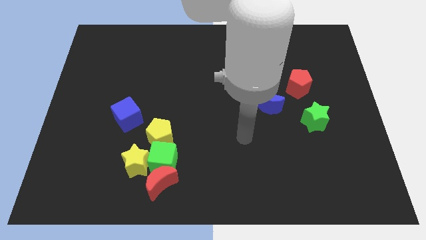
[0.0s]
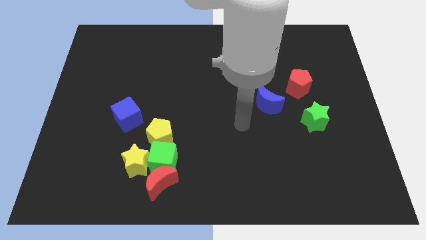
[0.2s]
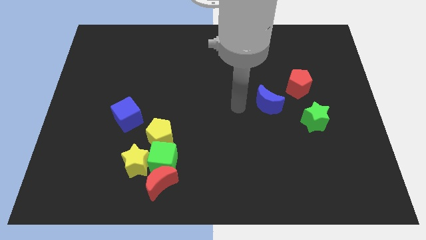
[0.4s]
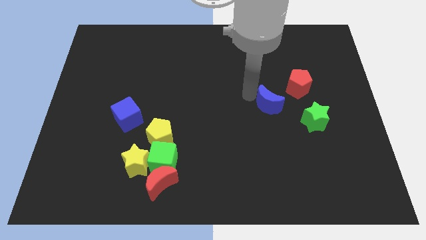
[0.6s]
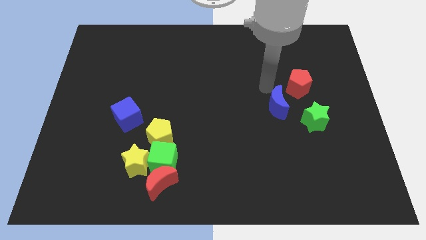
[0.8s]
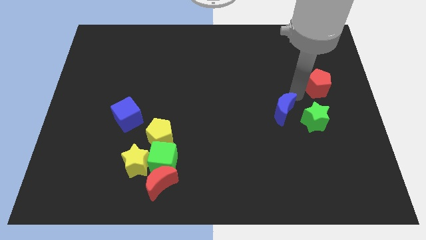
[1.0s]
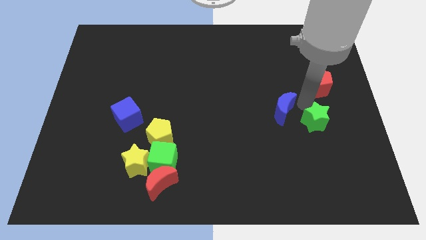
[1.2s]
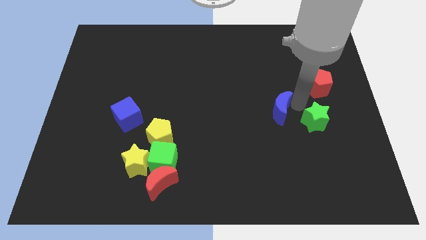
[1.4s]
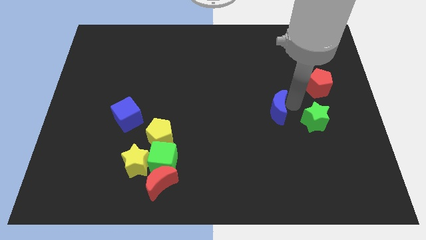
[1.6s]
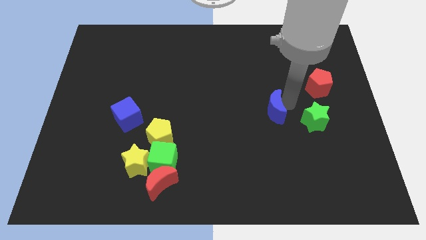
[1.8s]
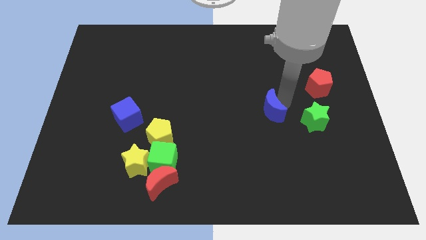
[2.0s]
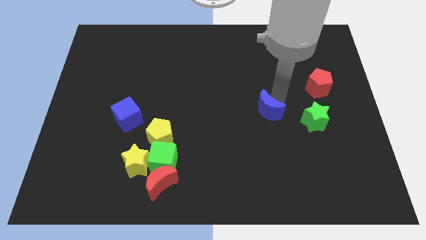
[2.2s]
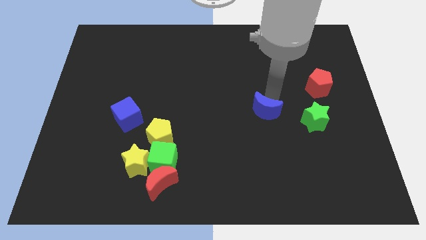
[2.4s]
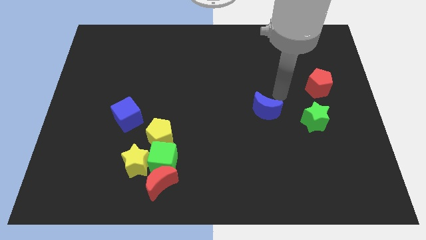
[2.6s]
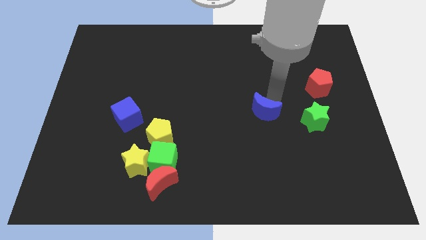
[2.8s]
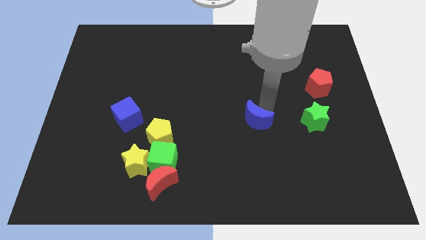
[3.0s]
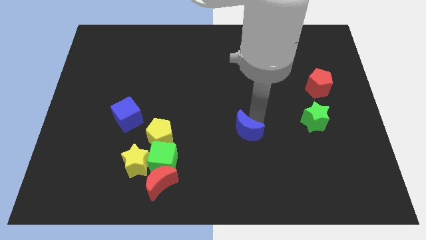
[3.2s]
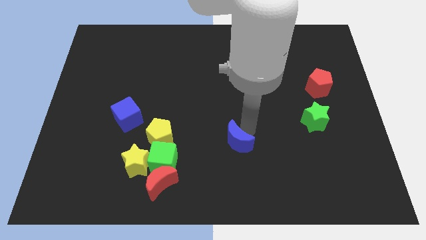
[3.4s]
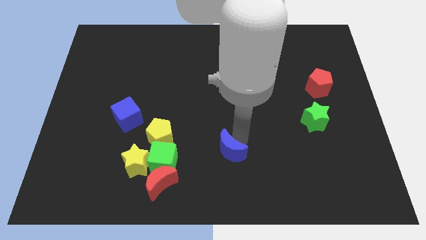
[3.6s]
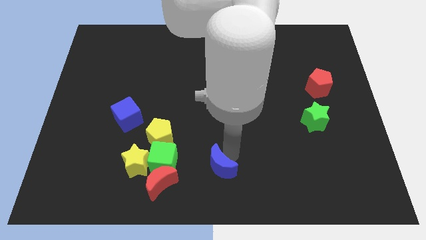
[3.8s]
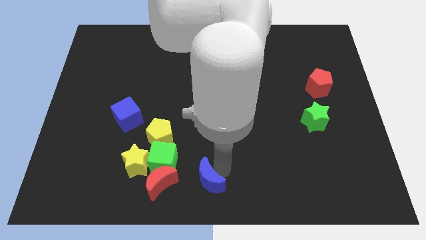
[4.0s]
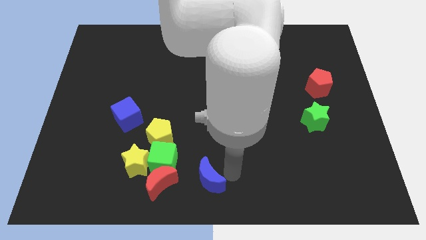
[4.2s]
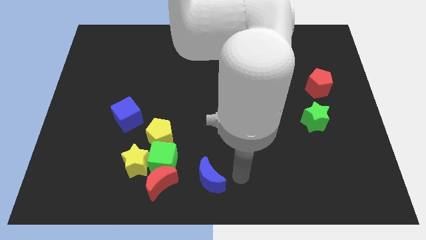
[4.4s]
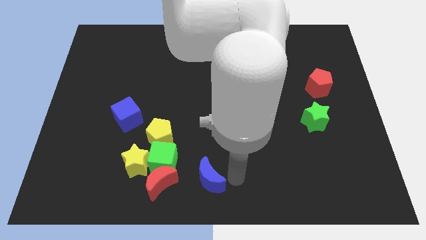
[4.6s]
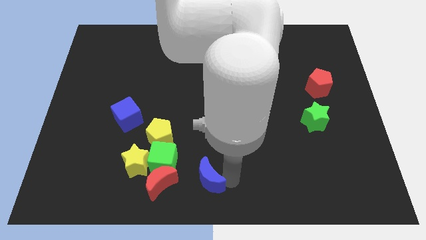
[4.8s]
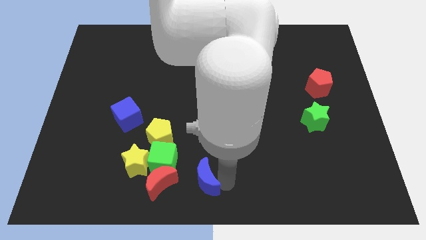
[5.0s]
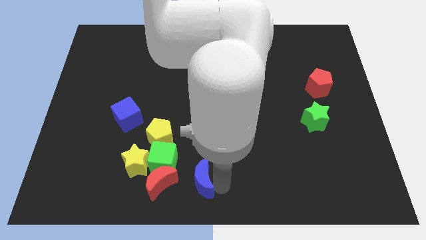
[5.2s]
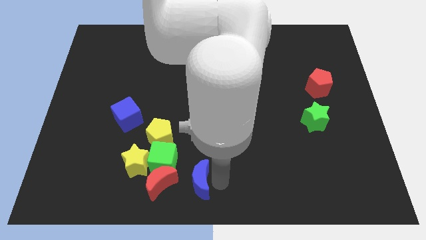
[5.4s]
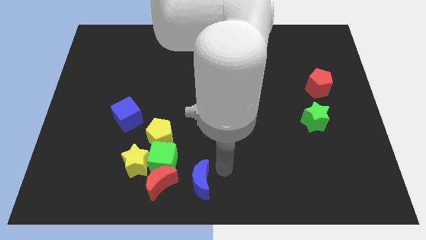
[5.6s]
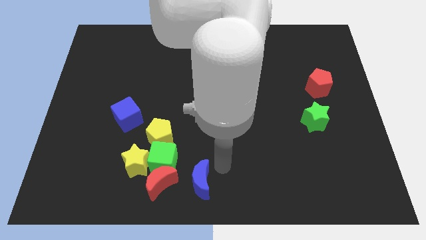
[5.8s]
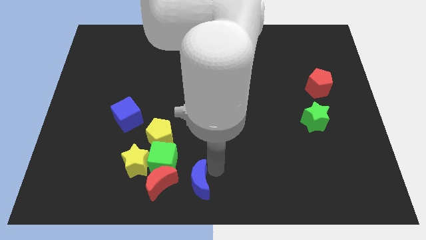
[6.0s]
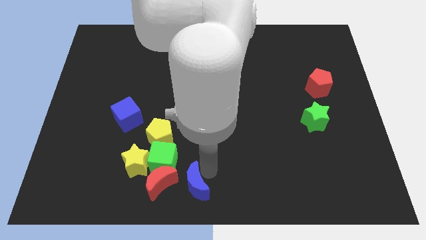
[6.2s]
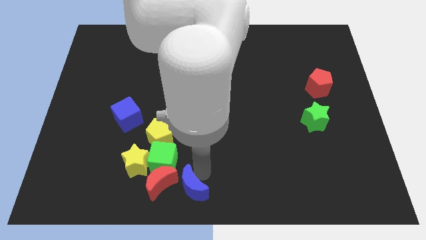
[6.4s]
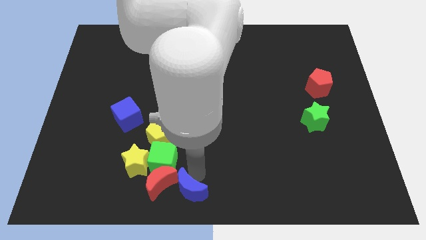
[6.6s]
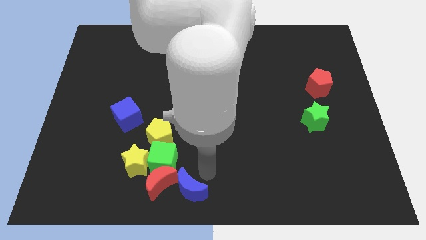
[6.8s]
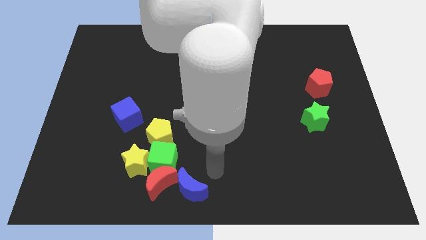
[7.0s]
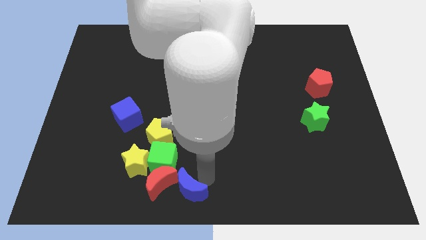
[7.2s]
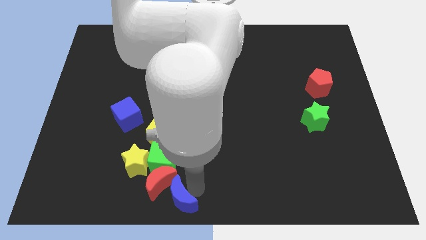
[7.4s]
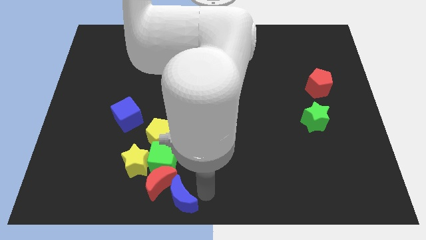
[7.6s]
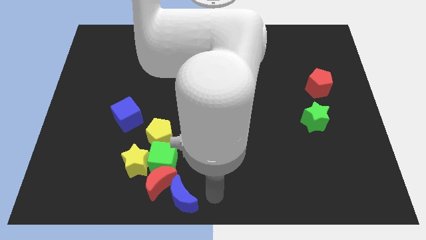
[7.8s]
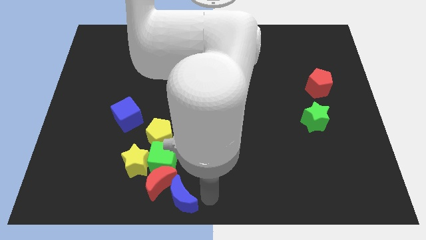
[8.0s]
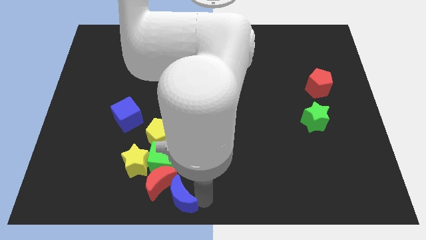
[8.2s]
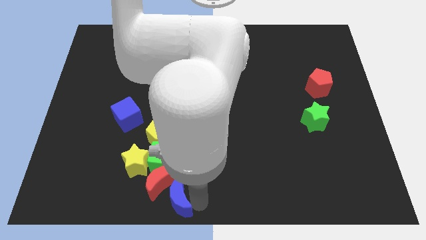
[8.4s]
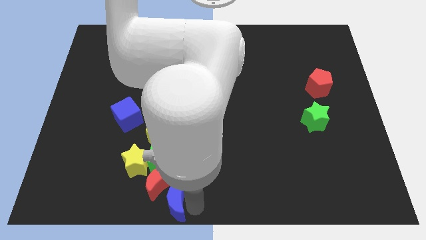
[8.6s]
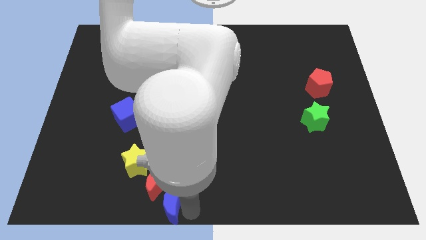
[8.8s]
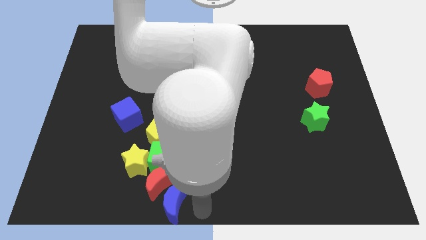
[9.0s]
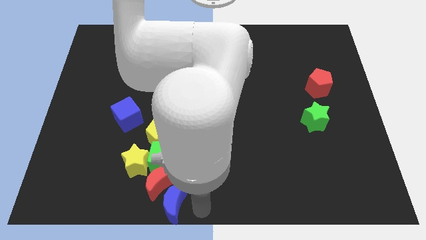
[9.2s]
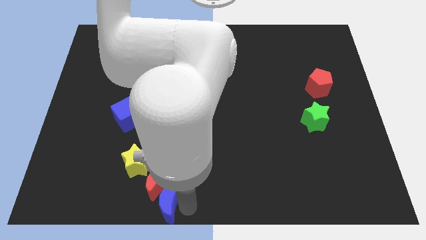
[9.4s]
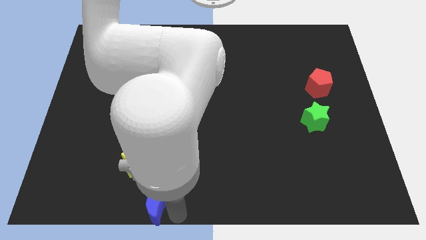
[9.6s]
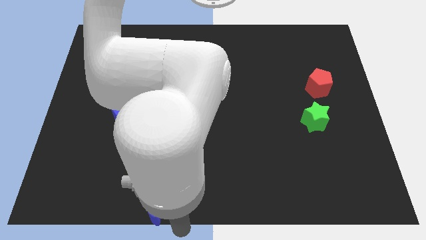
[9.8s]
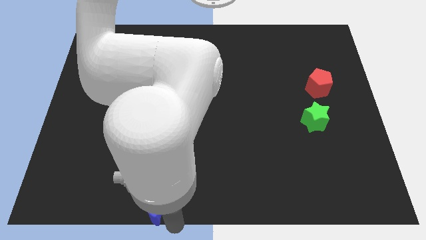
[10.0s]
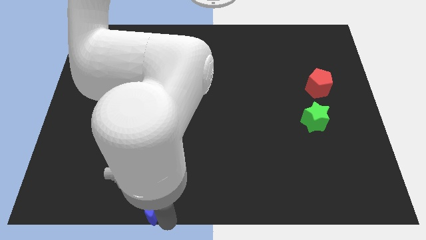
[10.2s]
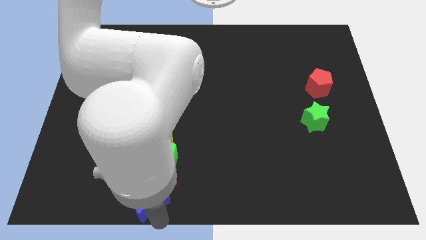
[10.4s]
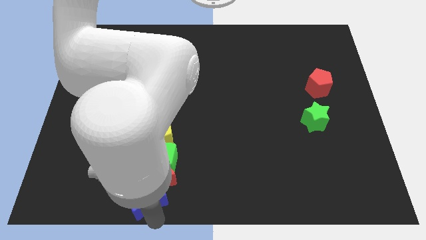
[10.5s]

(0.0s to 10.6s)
move the blue moon diagonally down and to the left of the green cube

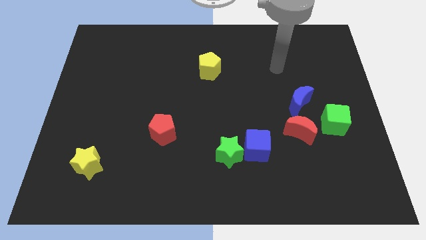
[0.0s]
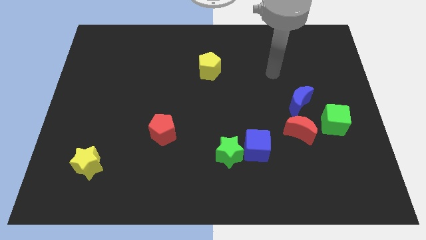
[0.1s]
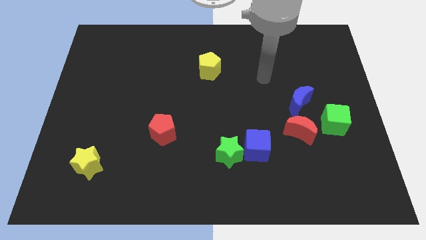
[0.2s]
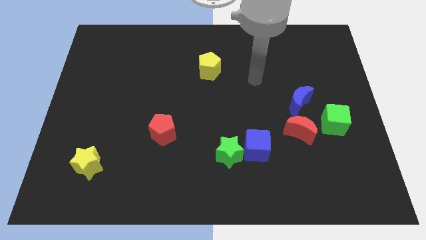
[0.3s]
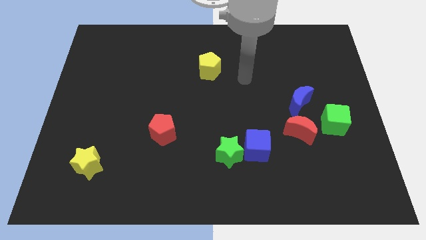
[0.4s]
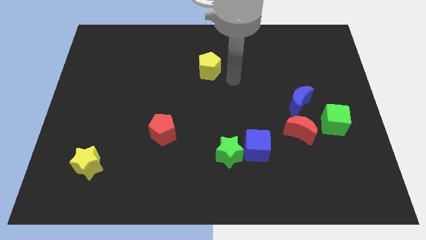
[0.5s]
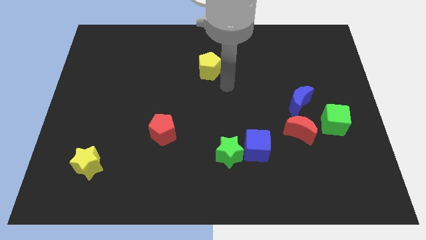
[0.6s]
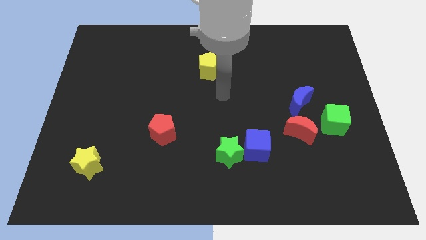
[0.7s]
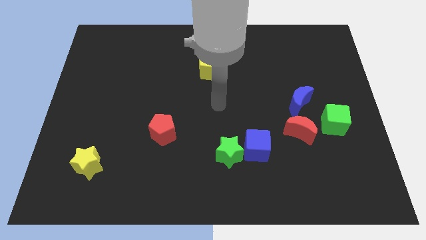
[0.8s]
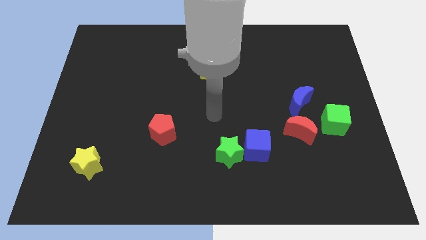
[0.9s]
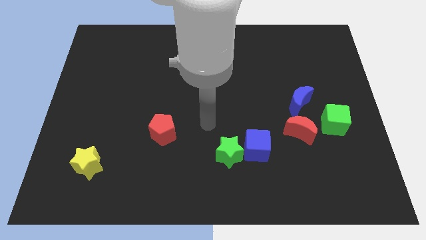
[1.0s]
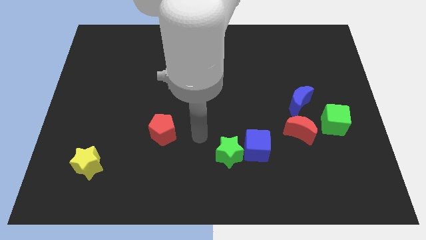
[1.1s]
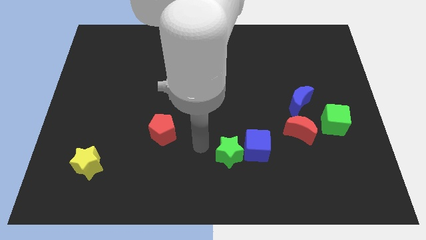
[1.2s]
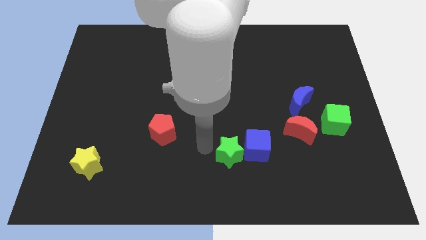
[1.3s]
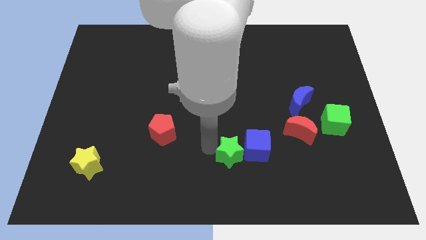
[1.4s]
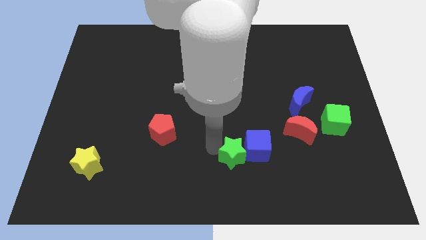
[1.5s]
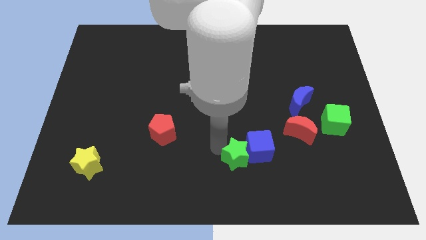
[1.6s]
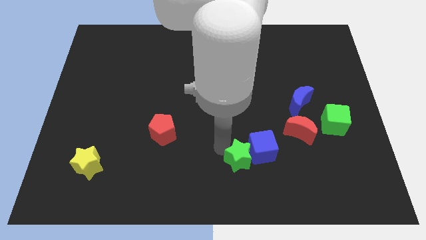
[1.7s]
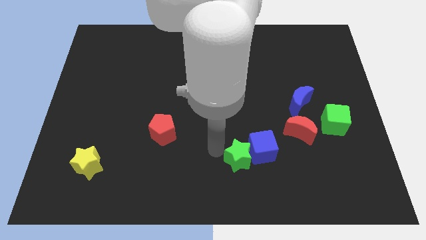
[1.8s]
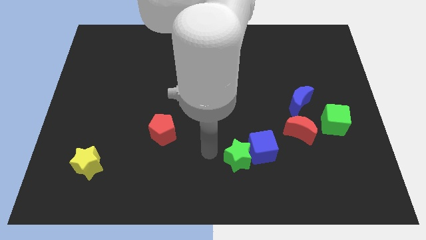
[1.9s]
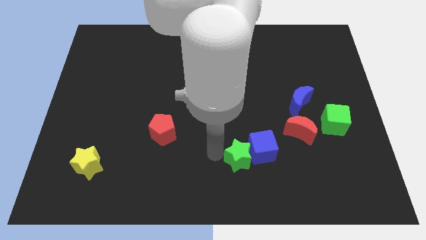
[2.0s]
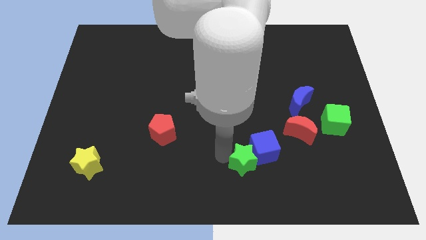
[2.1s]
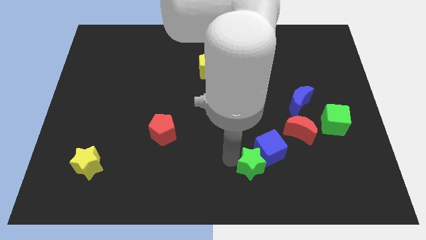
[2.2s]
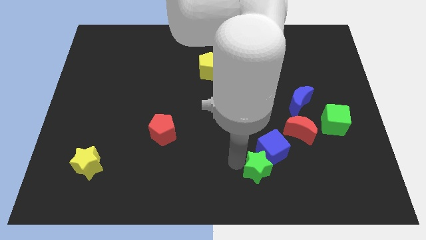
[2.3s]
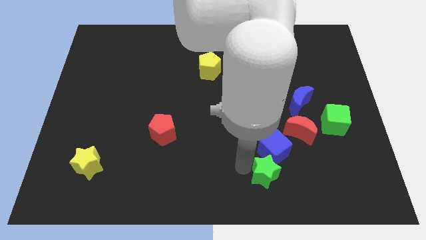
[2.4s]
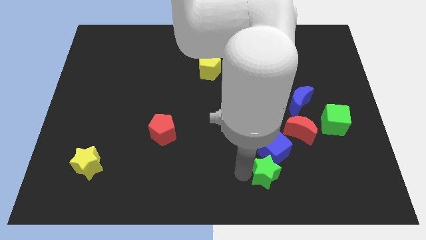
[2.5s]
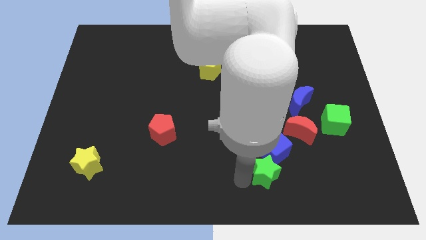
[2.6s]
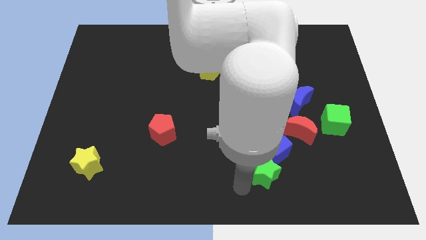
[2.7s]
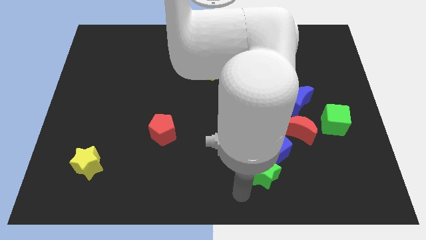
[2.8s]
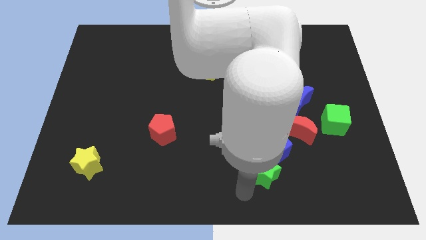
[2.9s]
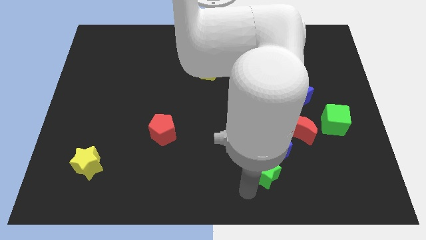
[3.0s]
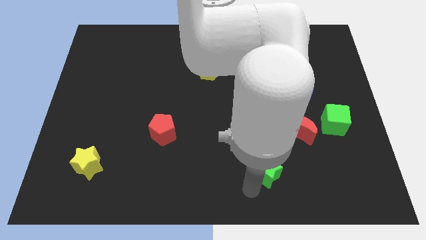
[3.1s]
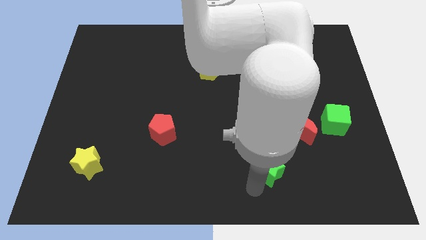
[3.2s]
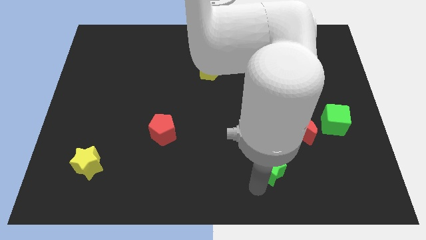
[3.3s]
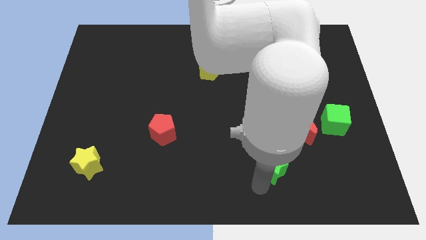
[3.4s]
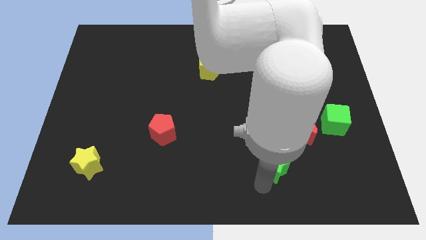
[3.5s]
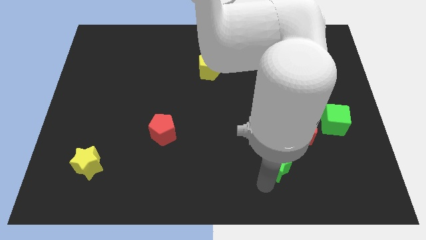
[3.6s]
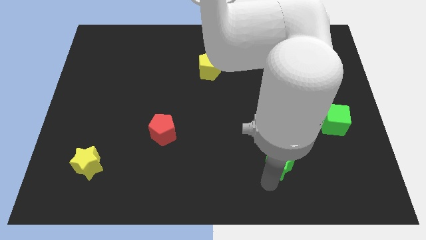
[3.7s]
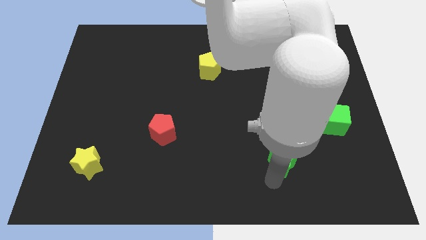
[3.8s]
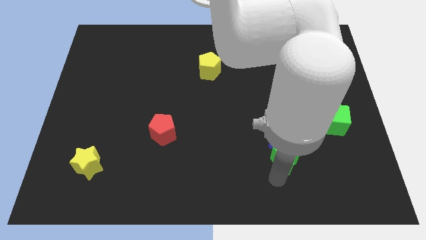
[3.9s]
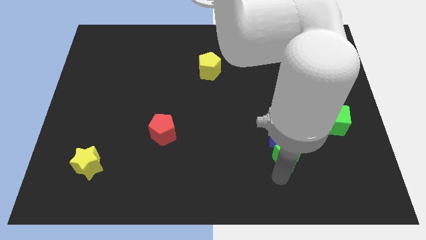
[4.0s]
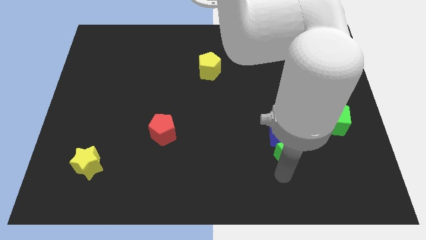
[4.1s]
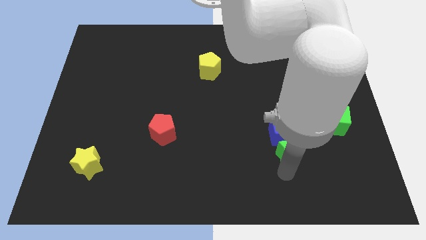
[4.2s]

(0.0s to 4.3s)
slide the green star to the bottom side of the blue moon
